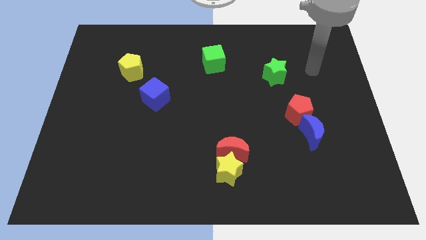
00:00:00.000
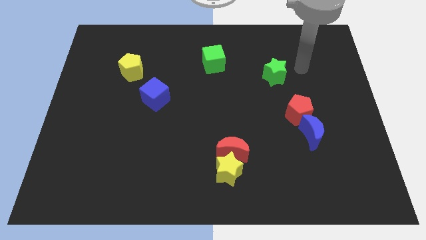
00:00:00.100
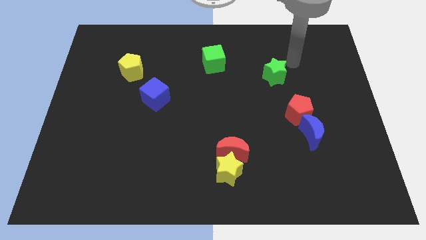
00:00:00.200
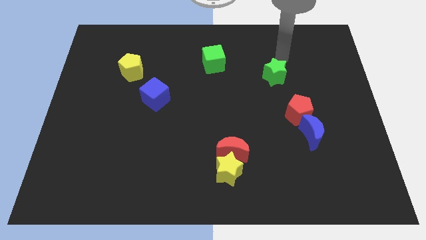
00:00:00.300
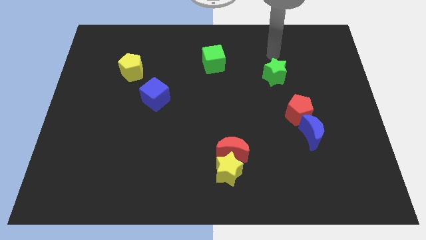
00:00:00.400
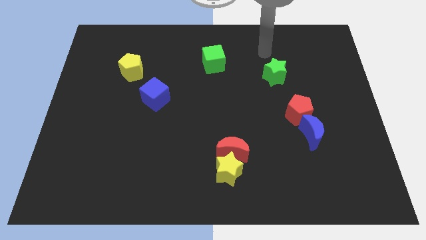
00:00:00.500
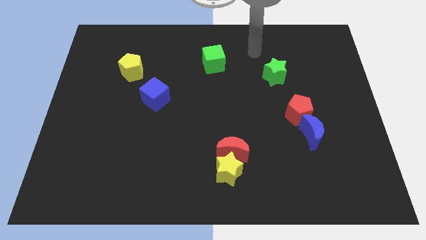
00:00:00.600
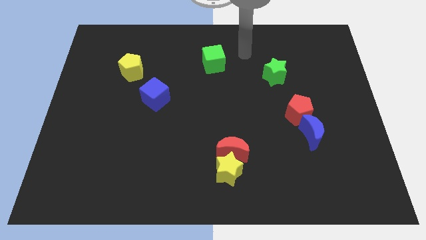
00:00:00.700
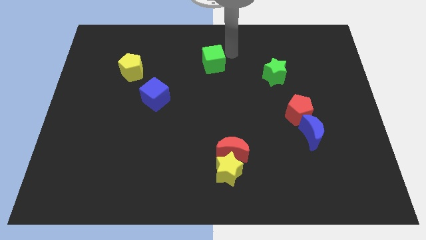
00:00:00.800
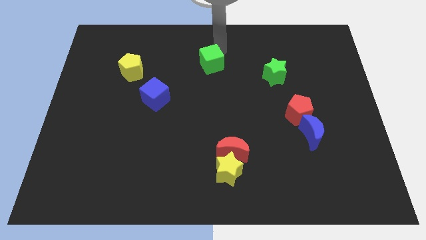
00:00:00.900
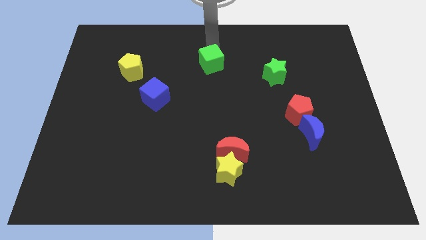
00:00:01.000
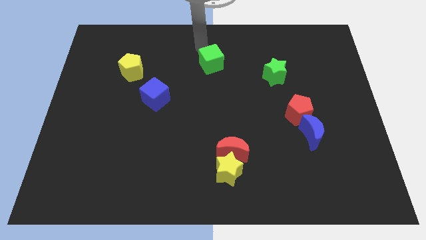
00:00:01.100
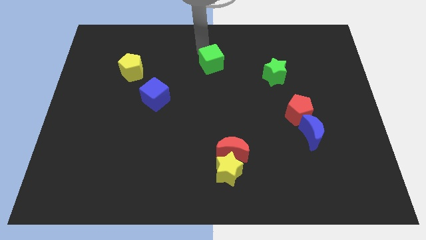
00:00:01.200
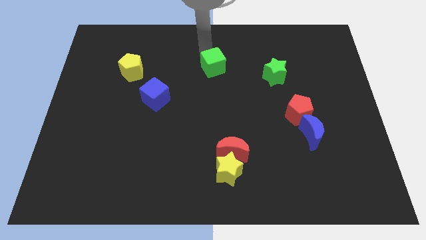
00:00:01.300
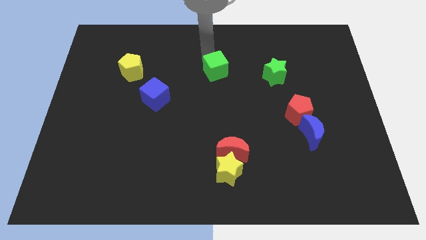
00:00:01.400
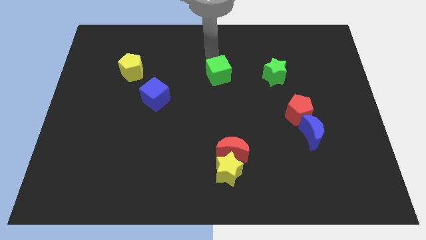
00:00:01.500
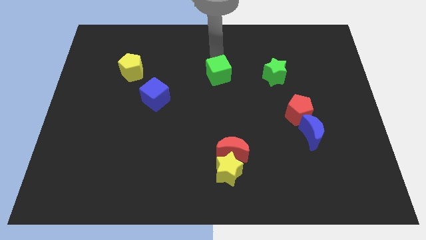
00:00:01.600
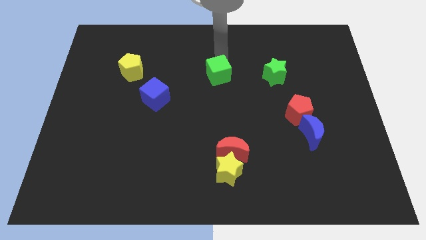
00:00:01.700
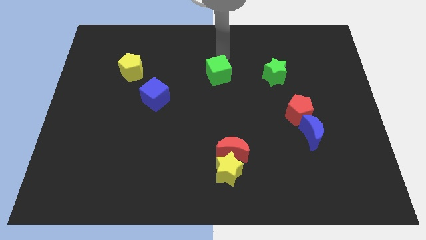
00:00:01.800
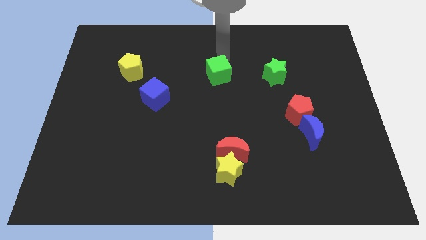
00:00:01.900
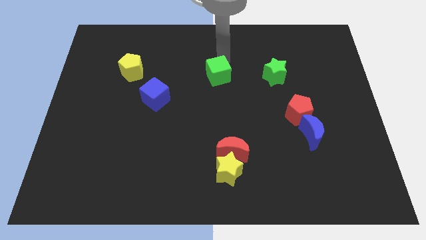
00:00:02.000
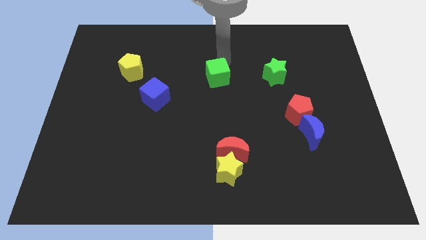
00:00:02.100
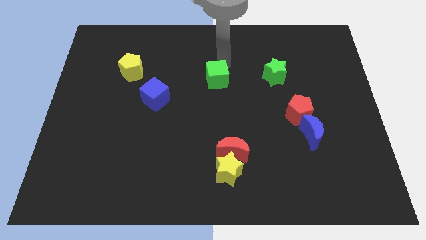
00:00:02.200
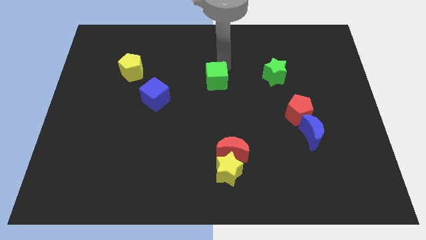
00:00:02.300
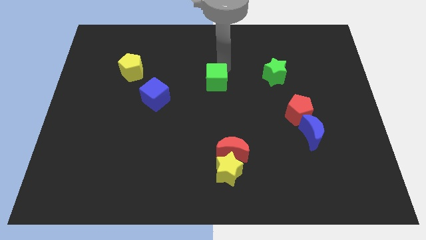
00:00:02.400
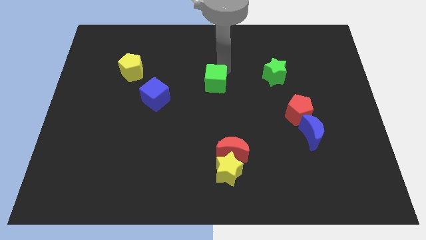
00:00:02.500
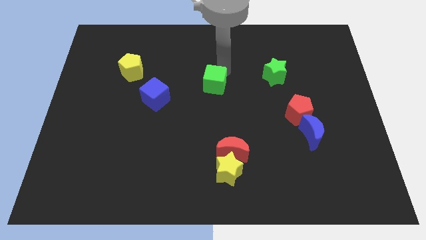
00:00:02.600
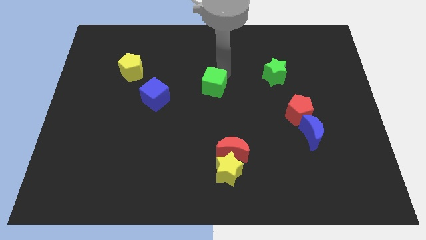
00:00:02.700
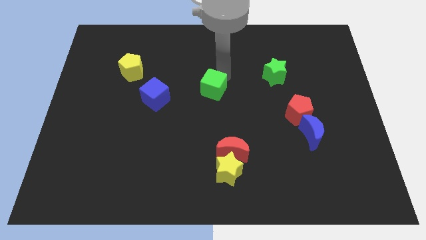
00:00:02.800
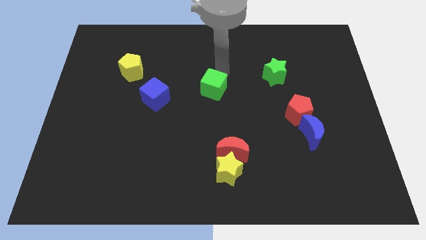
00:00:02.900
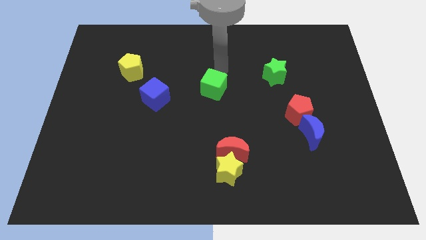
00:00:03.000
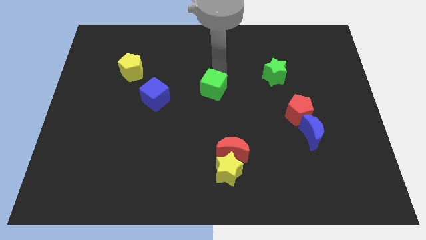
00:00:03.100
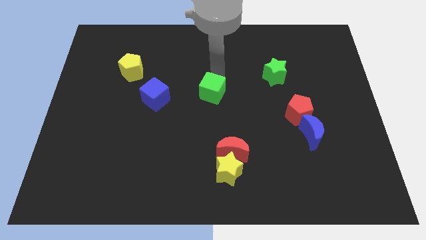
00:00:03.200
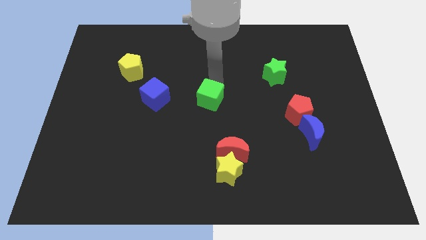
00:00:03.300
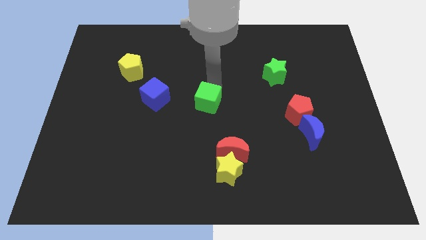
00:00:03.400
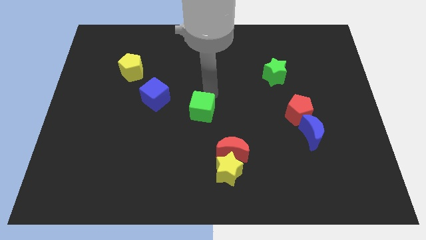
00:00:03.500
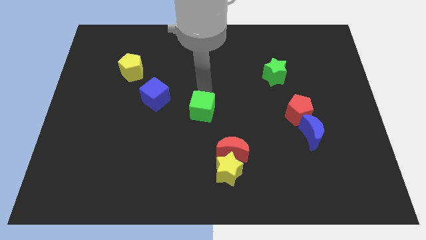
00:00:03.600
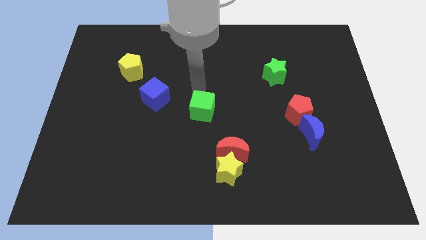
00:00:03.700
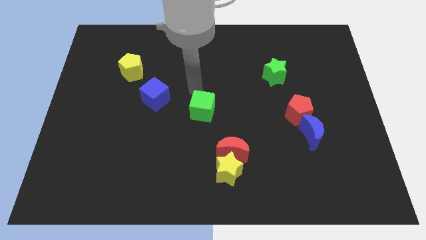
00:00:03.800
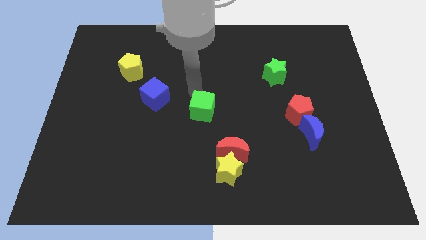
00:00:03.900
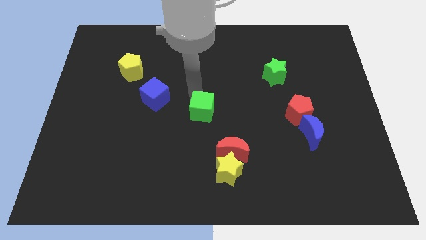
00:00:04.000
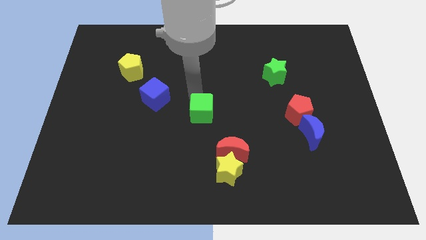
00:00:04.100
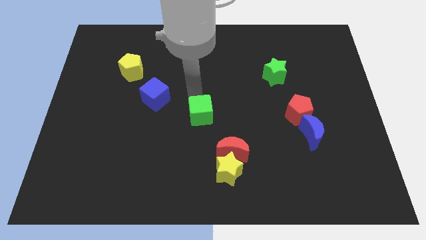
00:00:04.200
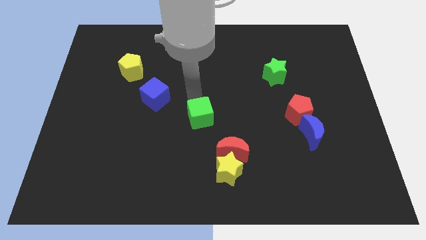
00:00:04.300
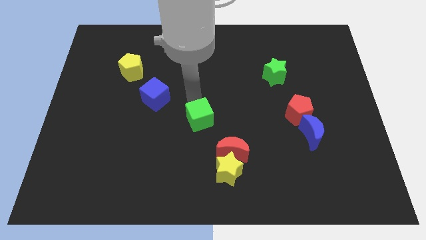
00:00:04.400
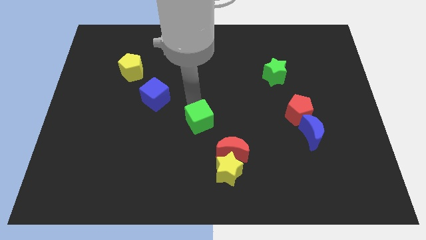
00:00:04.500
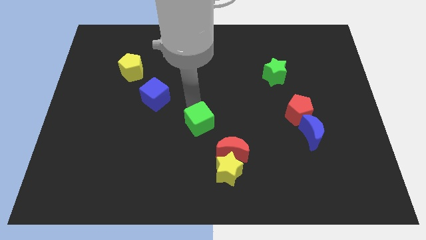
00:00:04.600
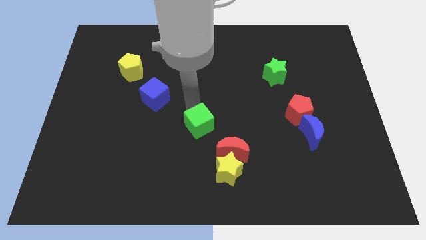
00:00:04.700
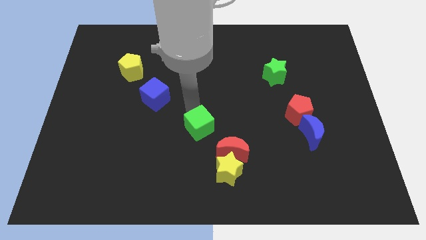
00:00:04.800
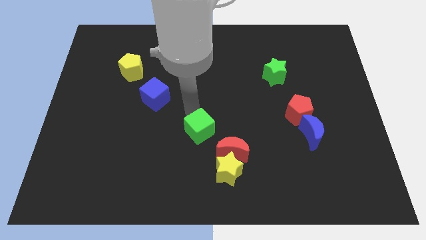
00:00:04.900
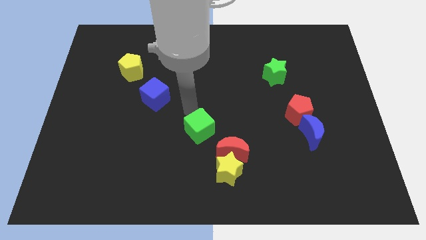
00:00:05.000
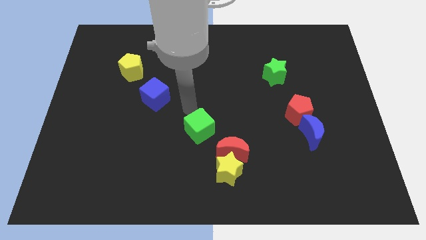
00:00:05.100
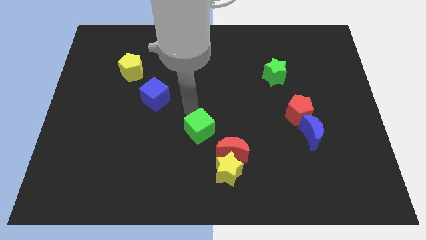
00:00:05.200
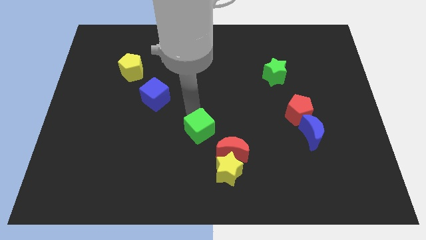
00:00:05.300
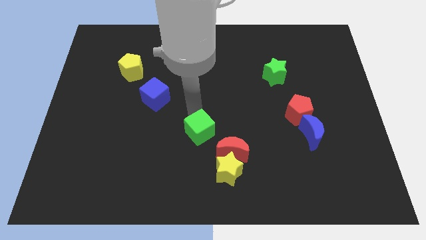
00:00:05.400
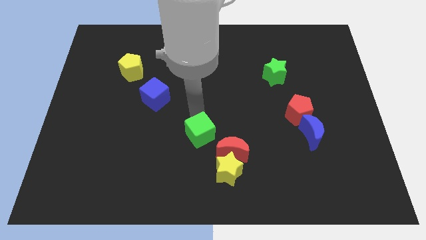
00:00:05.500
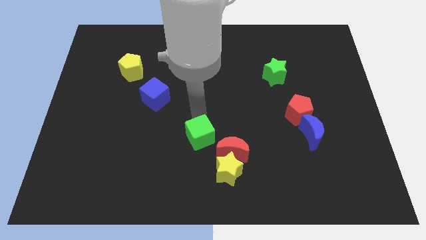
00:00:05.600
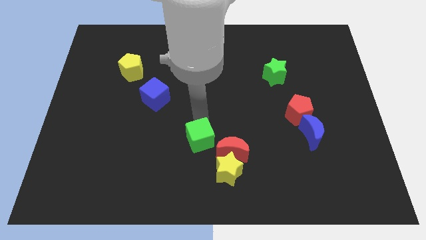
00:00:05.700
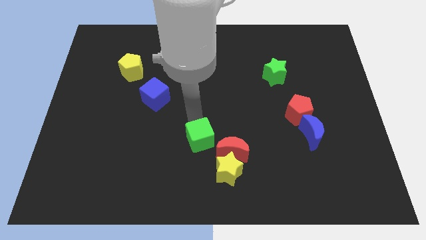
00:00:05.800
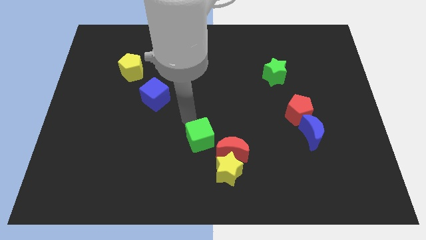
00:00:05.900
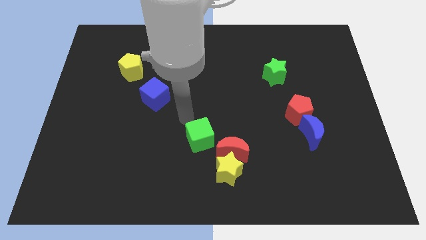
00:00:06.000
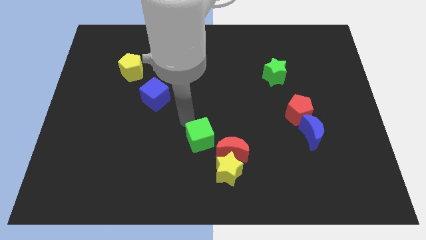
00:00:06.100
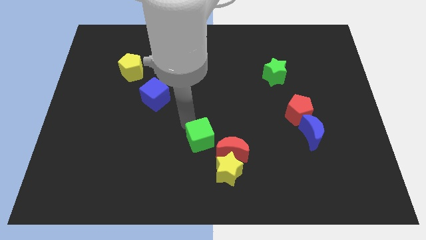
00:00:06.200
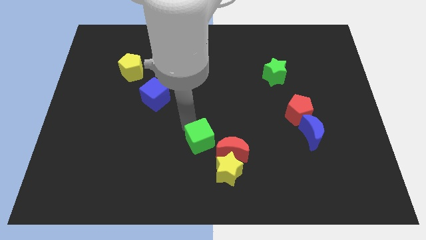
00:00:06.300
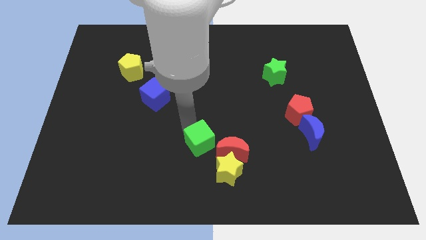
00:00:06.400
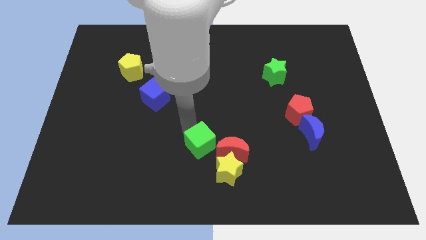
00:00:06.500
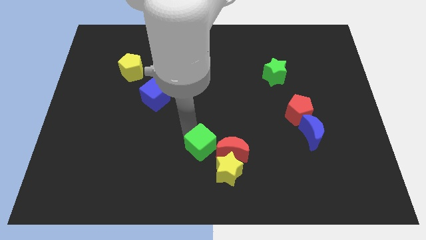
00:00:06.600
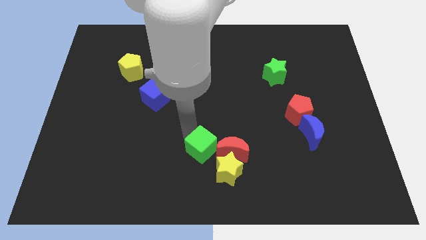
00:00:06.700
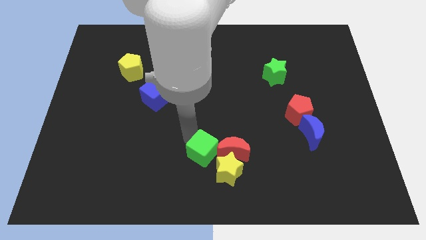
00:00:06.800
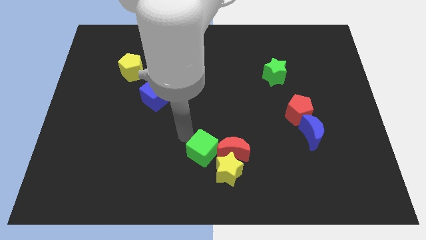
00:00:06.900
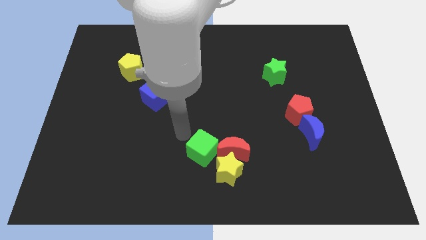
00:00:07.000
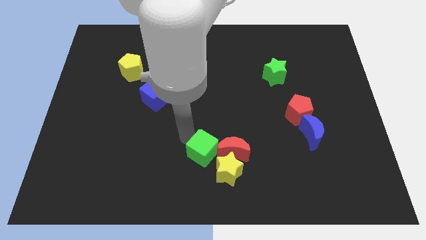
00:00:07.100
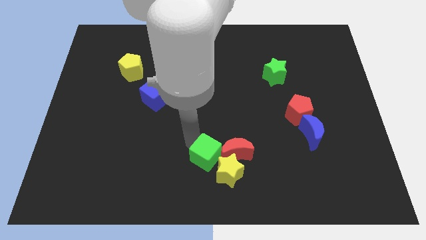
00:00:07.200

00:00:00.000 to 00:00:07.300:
put the green cube close to the yellow star

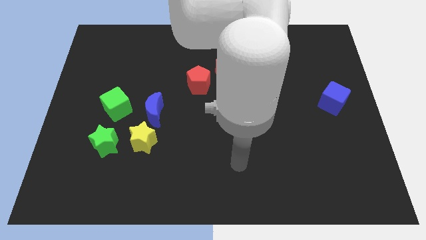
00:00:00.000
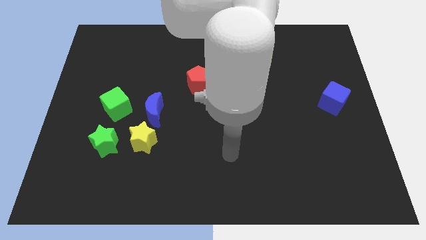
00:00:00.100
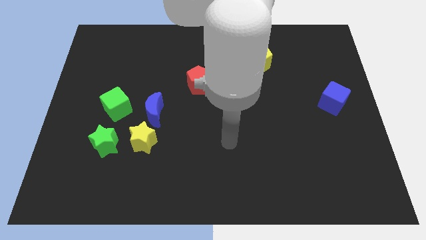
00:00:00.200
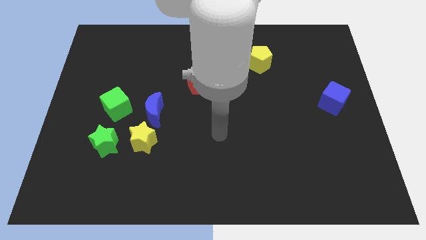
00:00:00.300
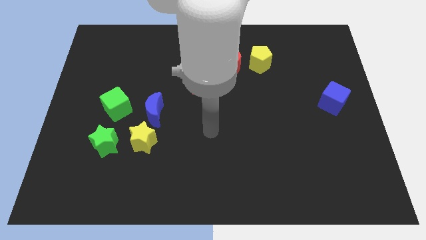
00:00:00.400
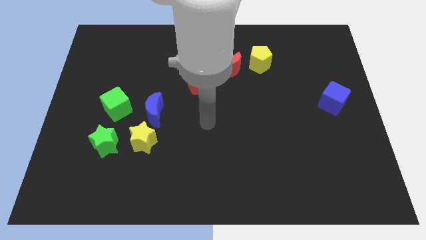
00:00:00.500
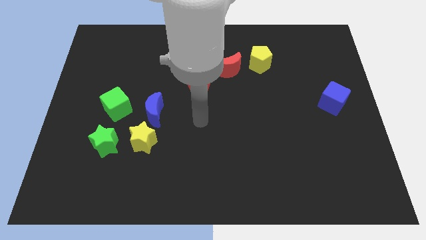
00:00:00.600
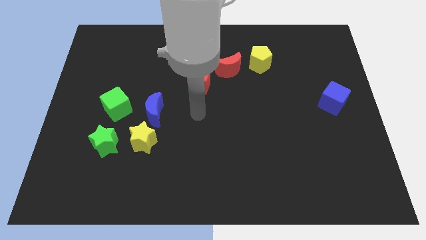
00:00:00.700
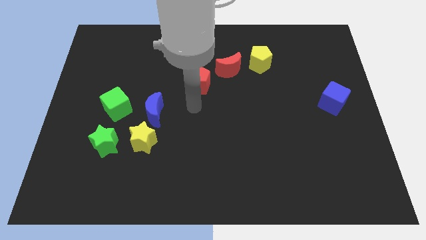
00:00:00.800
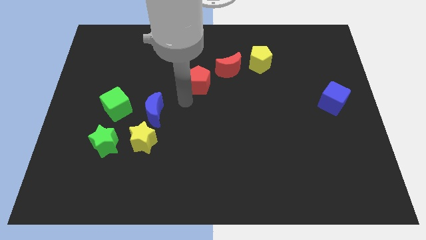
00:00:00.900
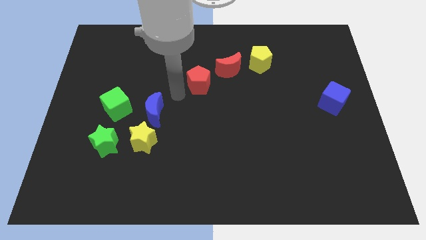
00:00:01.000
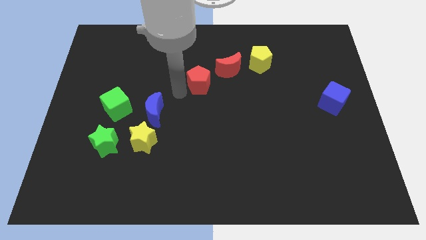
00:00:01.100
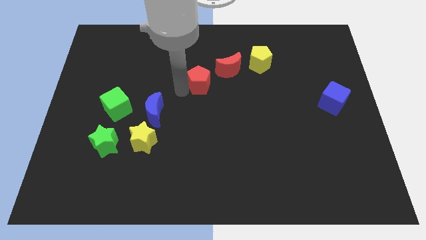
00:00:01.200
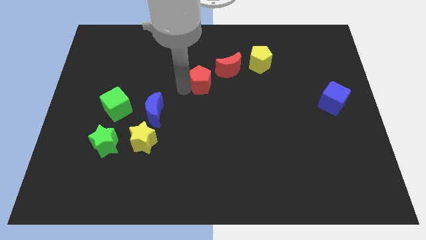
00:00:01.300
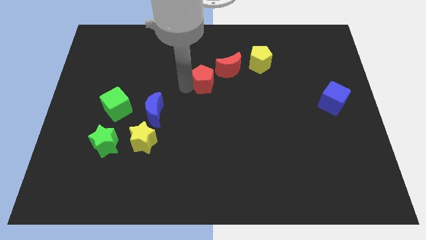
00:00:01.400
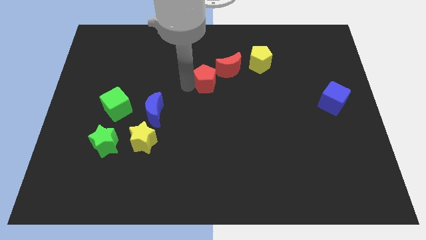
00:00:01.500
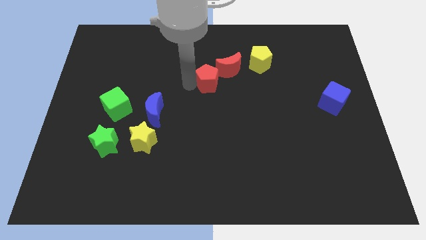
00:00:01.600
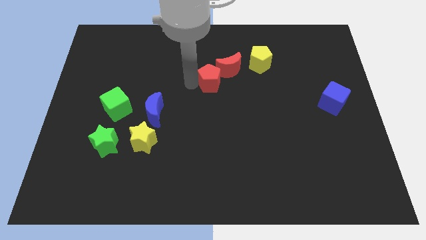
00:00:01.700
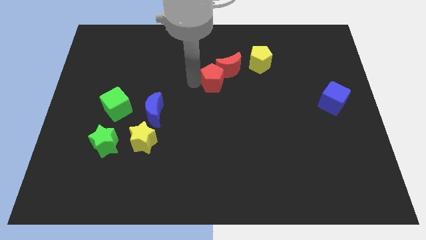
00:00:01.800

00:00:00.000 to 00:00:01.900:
move the red pentagon towards the red moon
